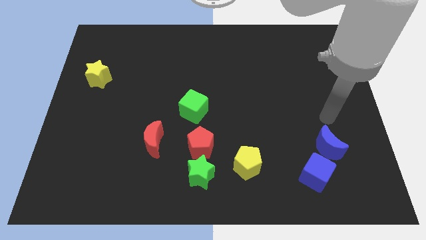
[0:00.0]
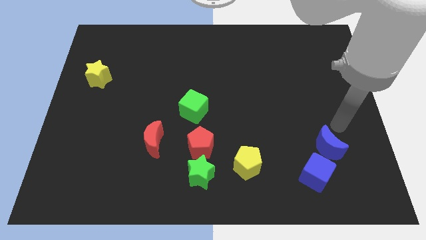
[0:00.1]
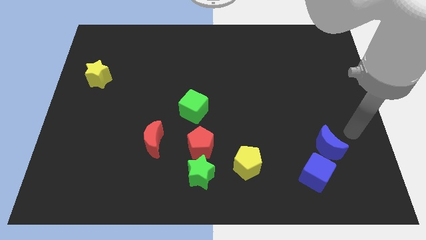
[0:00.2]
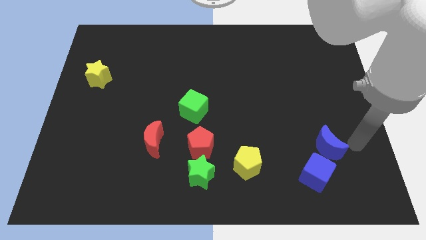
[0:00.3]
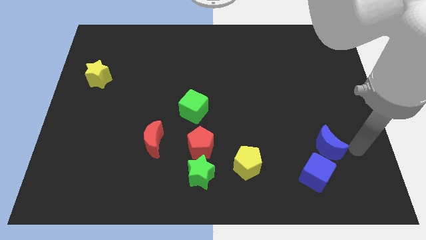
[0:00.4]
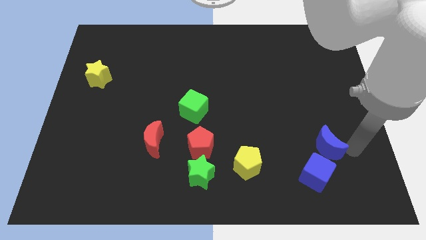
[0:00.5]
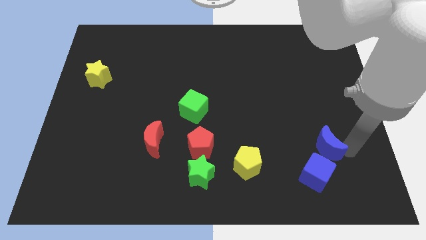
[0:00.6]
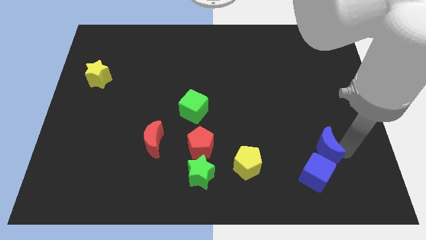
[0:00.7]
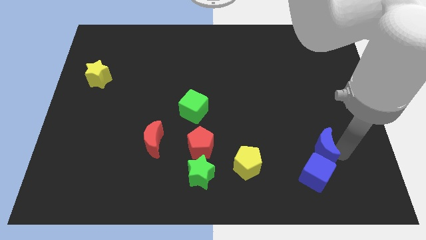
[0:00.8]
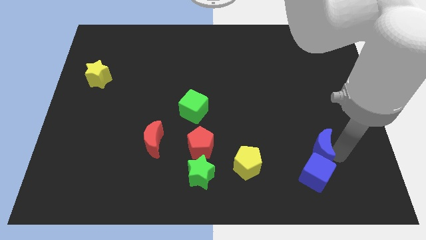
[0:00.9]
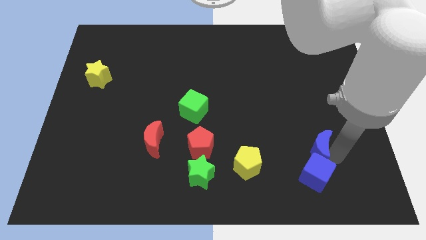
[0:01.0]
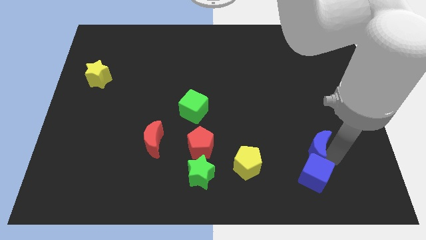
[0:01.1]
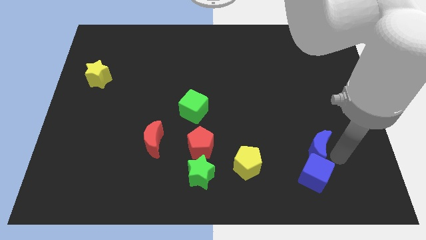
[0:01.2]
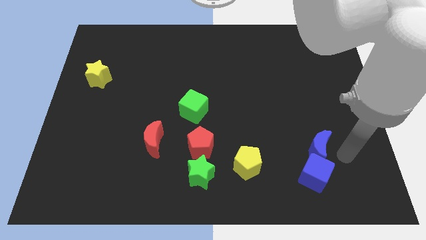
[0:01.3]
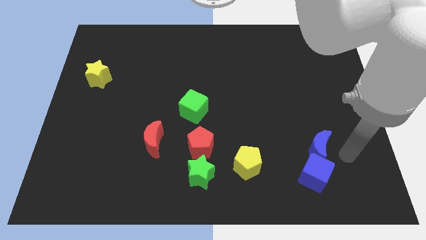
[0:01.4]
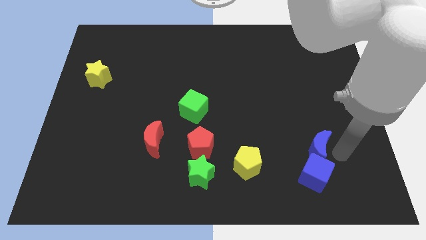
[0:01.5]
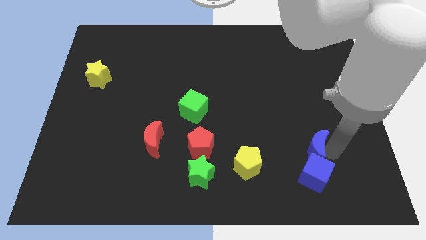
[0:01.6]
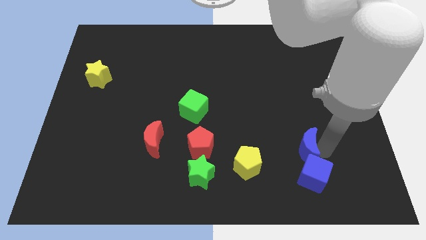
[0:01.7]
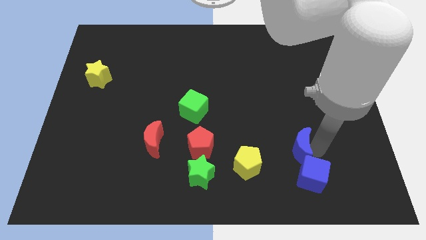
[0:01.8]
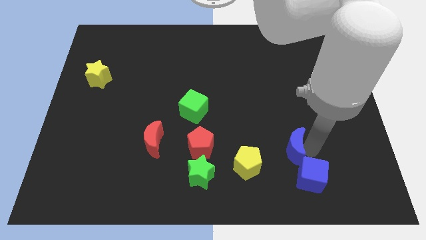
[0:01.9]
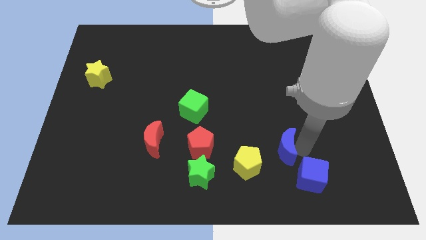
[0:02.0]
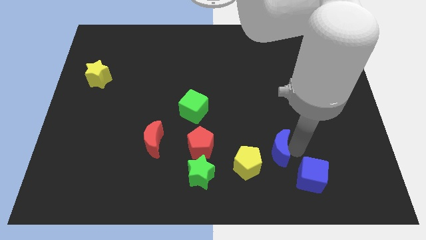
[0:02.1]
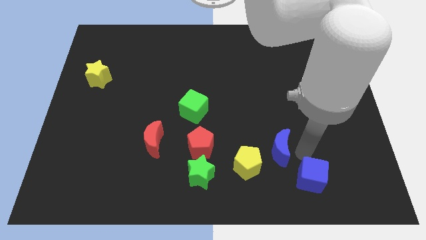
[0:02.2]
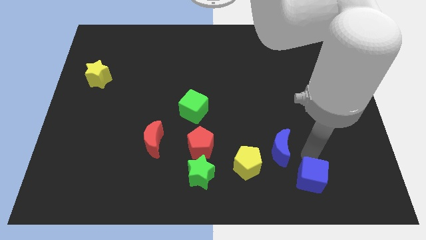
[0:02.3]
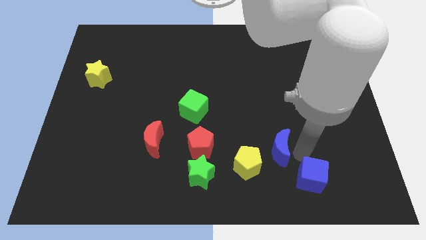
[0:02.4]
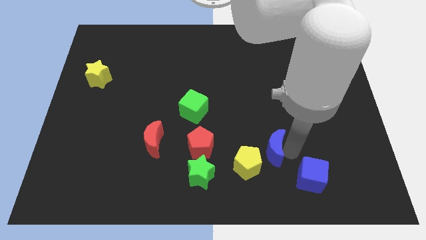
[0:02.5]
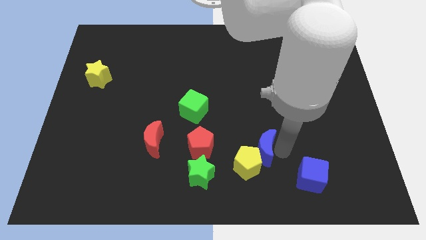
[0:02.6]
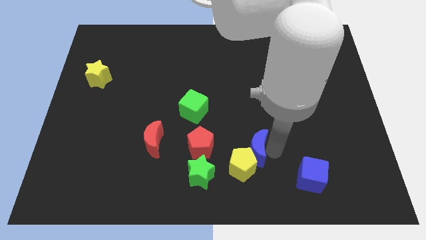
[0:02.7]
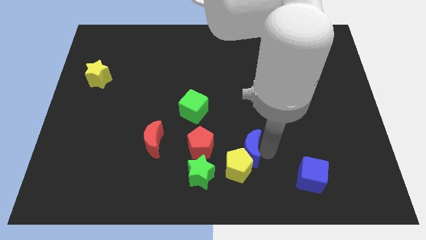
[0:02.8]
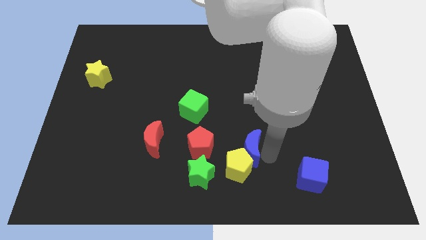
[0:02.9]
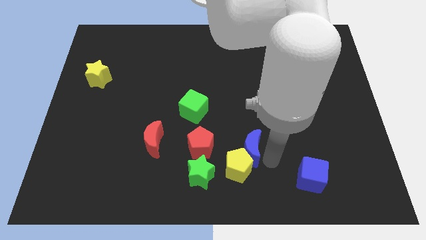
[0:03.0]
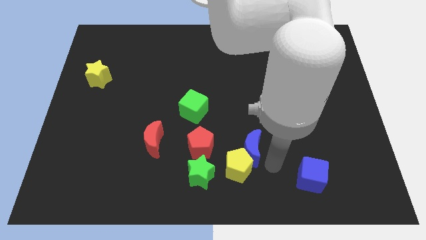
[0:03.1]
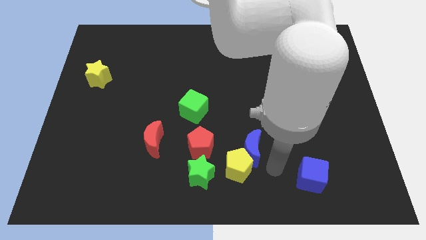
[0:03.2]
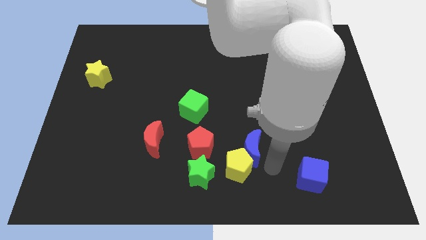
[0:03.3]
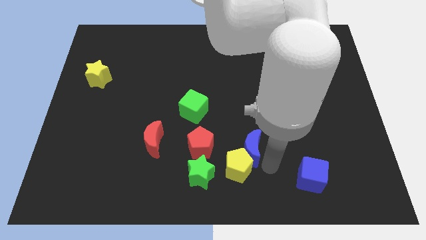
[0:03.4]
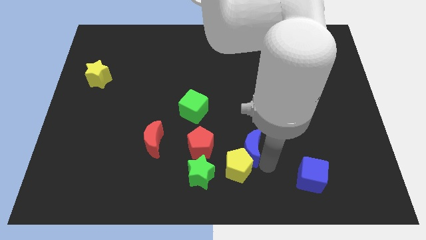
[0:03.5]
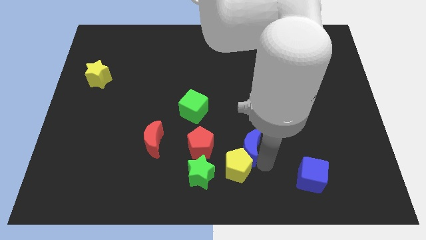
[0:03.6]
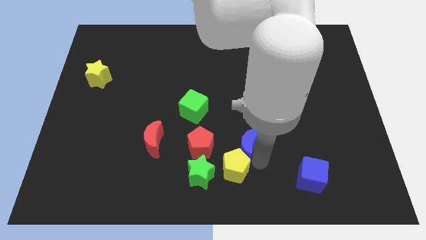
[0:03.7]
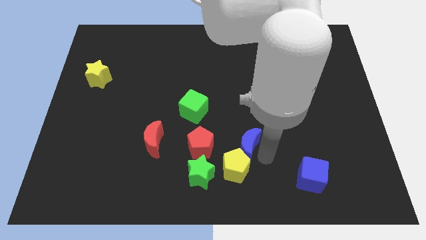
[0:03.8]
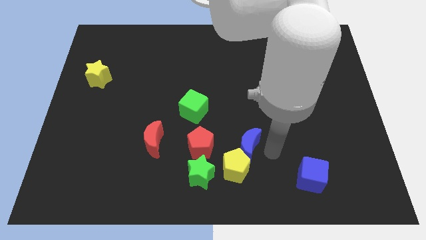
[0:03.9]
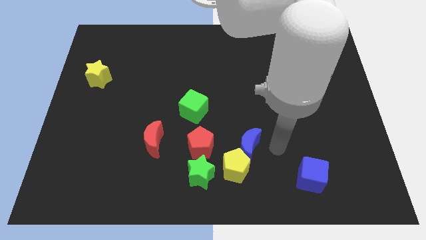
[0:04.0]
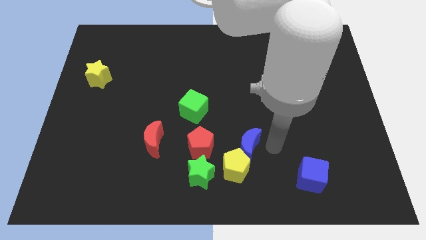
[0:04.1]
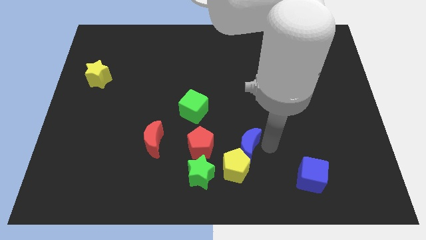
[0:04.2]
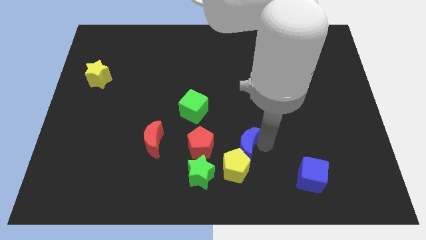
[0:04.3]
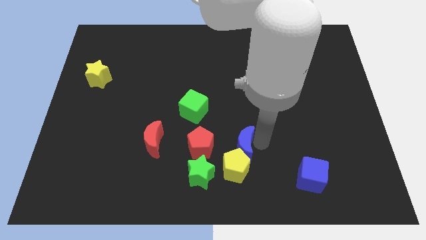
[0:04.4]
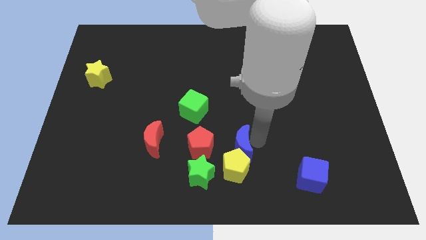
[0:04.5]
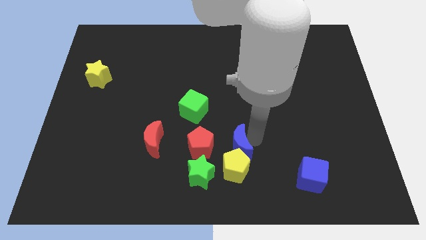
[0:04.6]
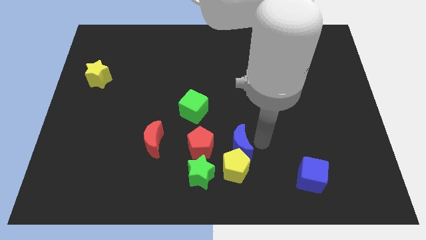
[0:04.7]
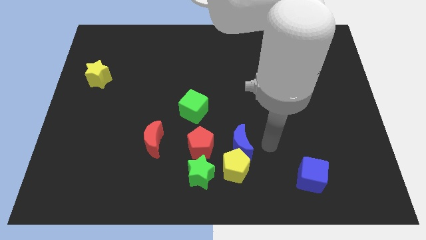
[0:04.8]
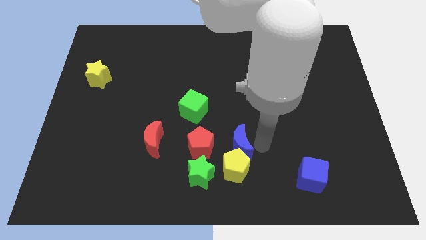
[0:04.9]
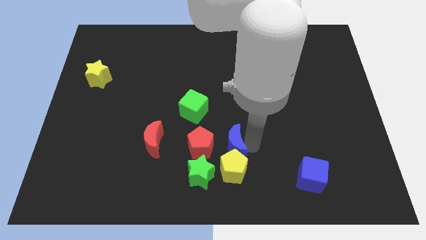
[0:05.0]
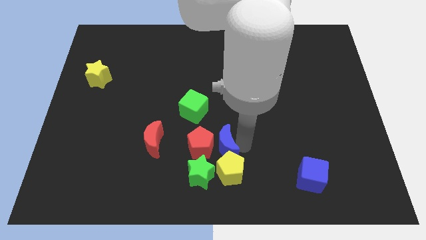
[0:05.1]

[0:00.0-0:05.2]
slide the blue moon to the red pentagon

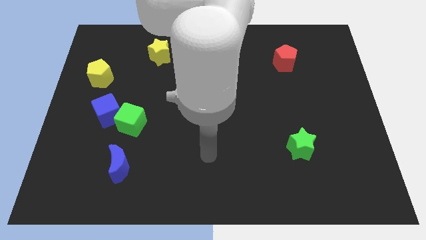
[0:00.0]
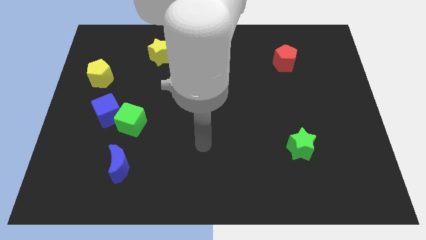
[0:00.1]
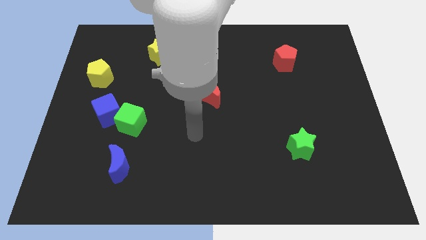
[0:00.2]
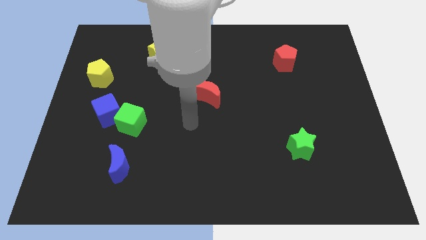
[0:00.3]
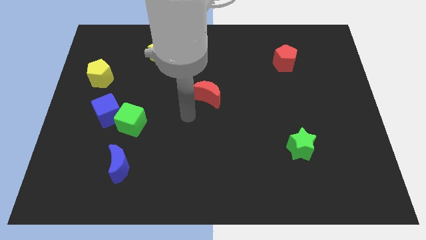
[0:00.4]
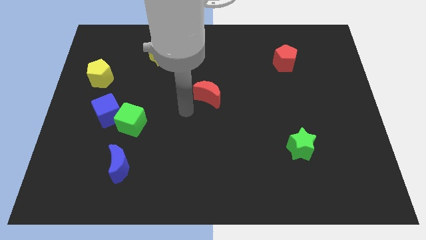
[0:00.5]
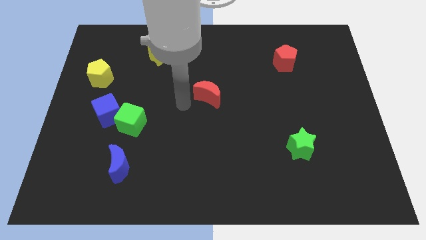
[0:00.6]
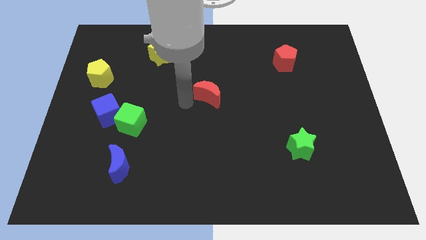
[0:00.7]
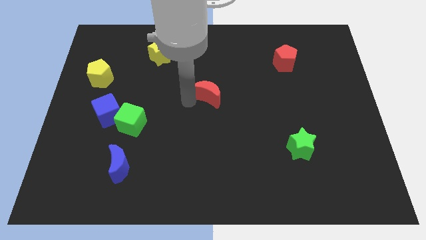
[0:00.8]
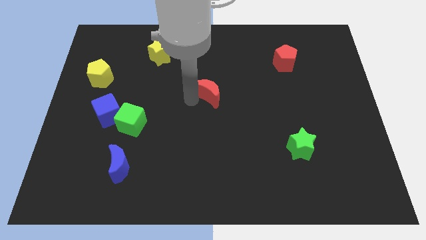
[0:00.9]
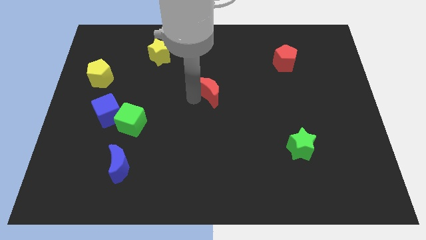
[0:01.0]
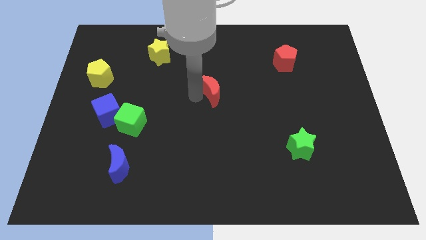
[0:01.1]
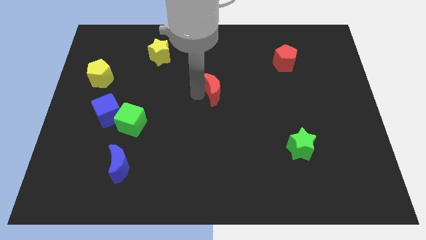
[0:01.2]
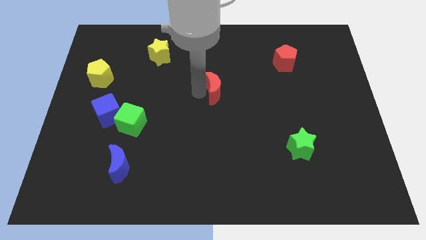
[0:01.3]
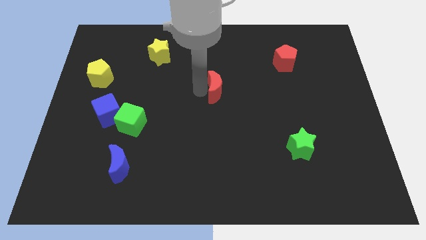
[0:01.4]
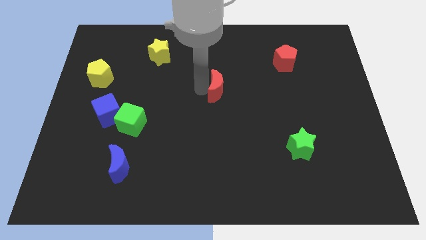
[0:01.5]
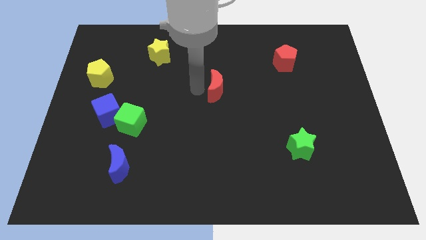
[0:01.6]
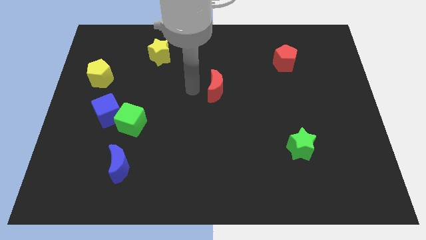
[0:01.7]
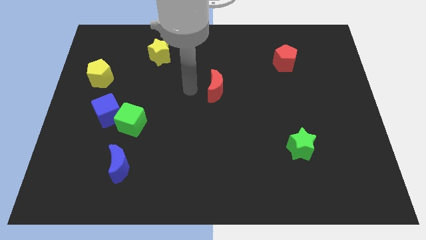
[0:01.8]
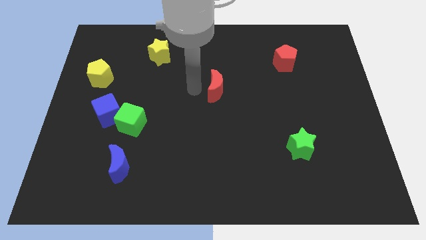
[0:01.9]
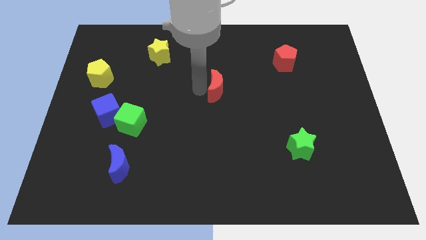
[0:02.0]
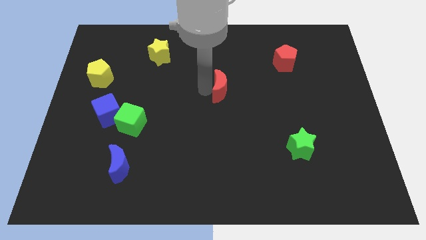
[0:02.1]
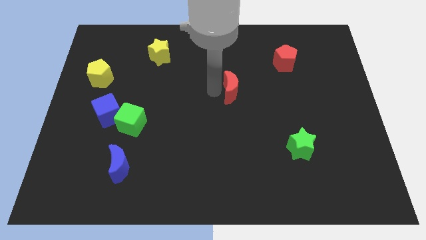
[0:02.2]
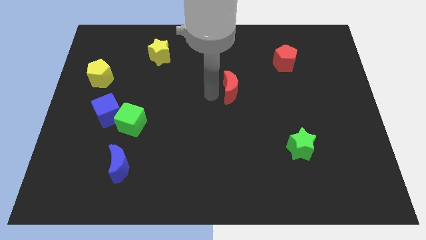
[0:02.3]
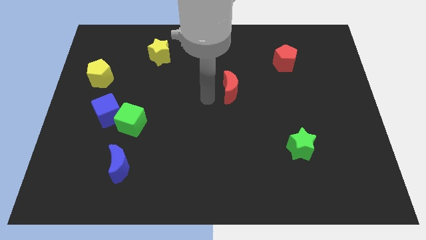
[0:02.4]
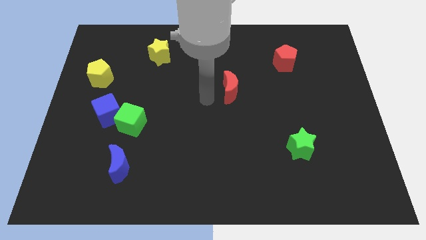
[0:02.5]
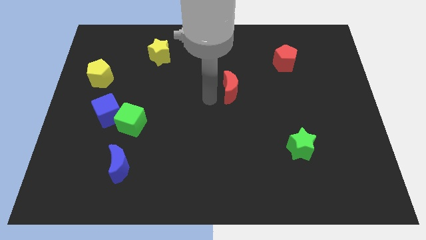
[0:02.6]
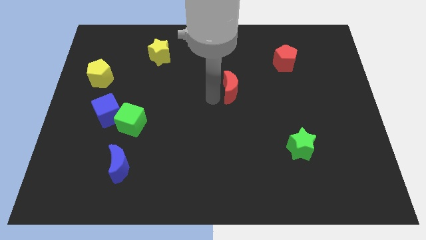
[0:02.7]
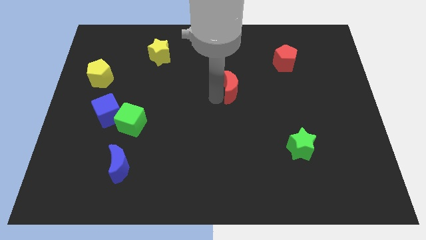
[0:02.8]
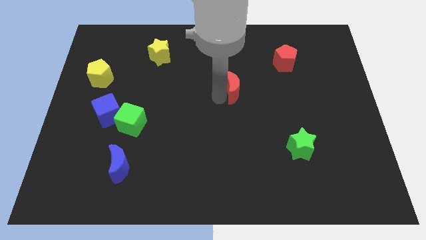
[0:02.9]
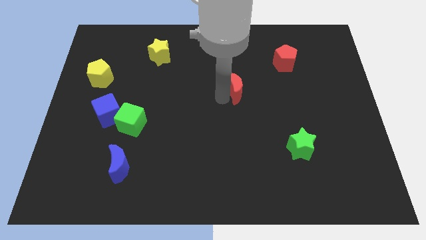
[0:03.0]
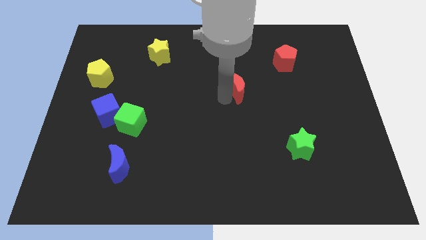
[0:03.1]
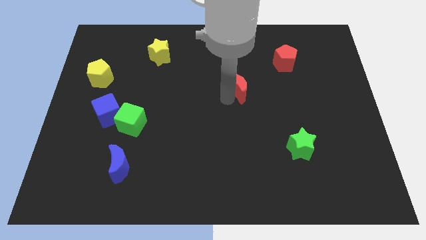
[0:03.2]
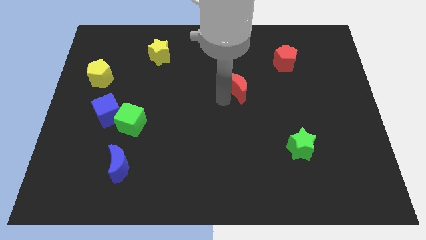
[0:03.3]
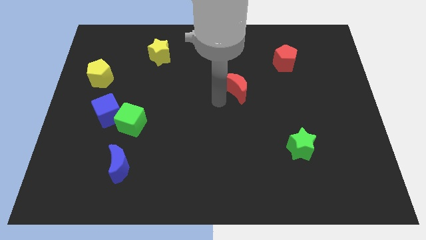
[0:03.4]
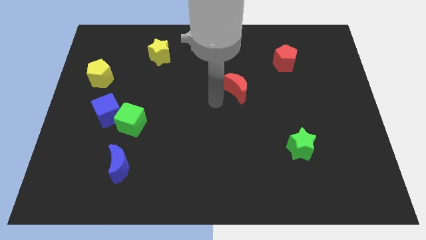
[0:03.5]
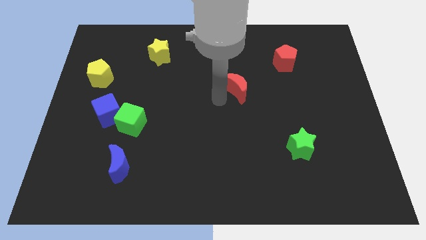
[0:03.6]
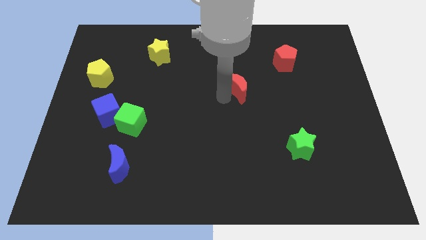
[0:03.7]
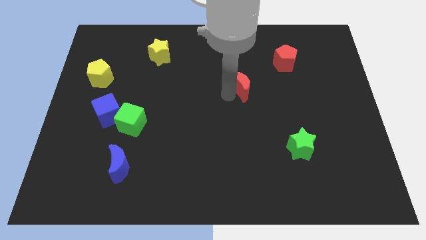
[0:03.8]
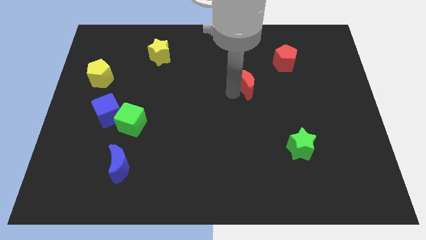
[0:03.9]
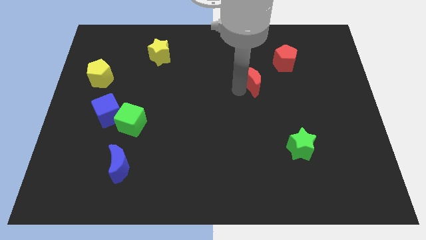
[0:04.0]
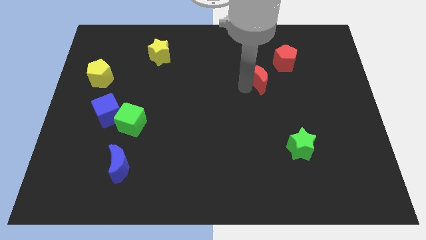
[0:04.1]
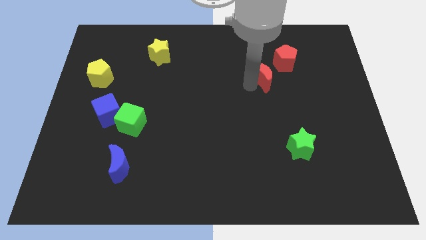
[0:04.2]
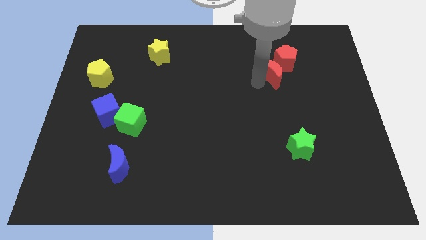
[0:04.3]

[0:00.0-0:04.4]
put the red moon close to the red pentagon
